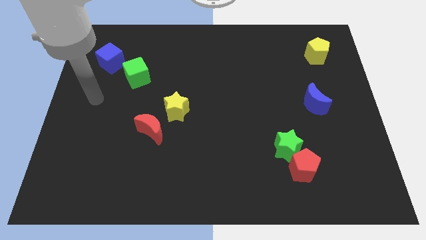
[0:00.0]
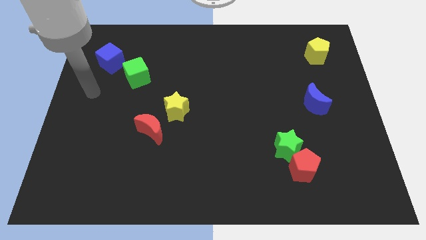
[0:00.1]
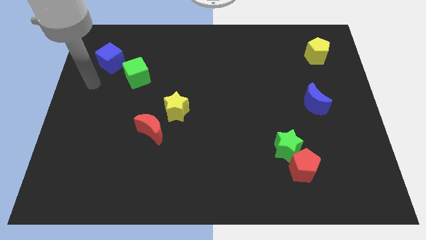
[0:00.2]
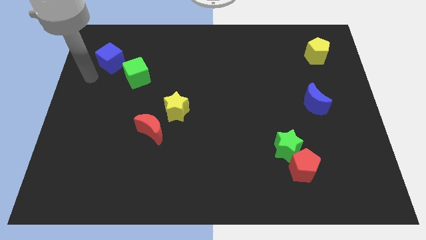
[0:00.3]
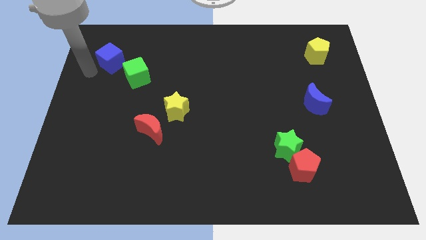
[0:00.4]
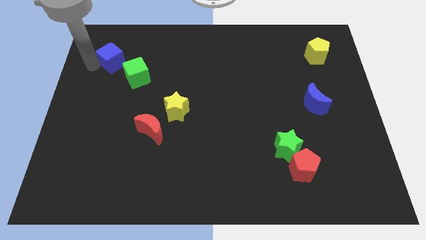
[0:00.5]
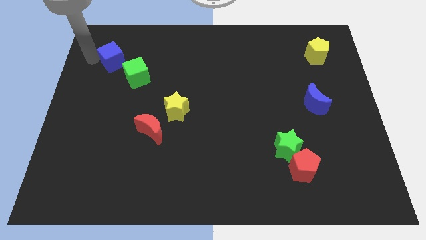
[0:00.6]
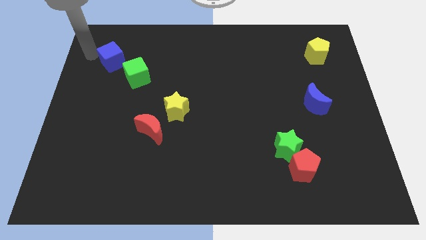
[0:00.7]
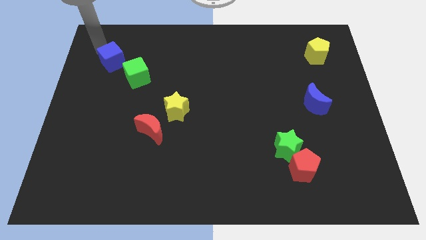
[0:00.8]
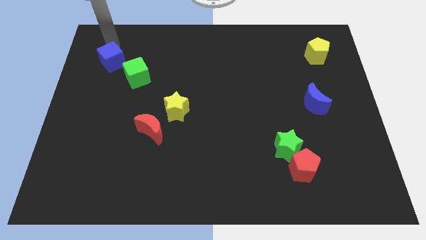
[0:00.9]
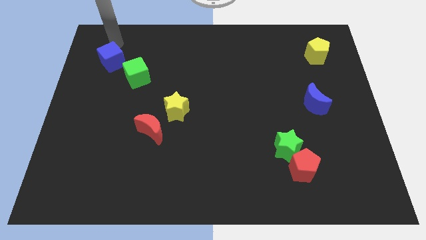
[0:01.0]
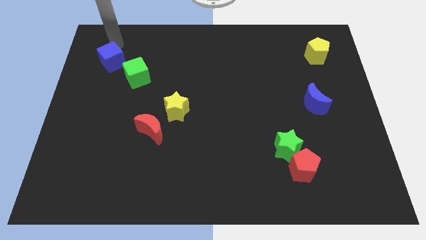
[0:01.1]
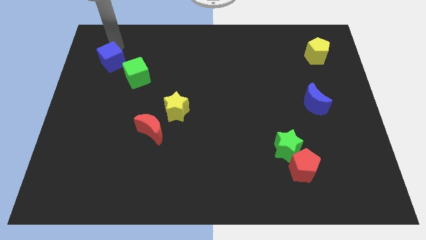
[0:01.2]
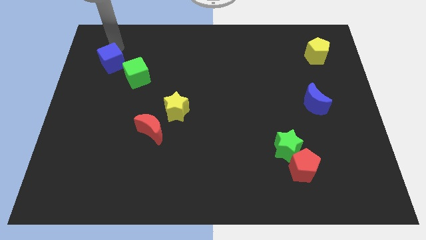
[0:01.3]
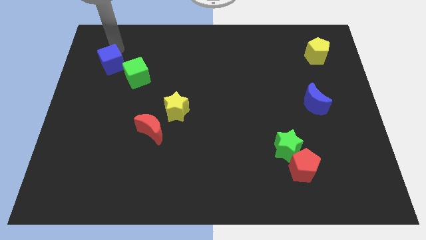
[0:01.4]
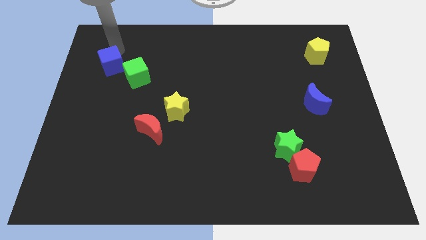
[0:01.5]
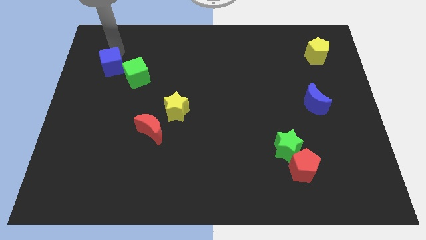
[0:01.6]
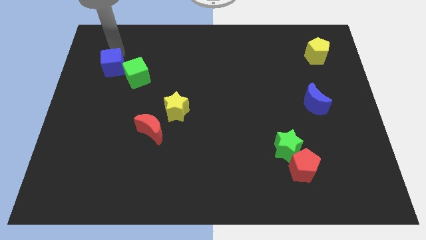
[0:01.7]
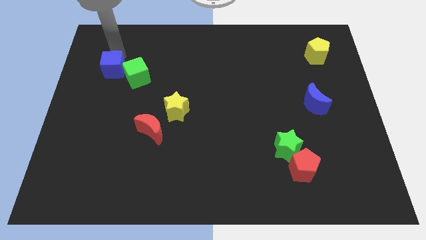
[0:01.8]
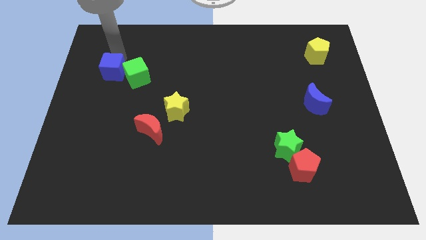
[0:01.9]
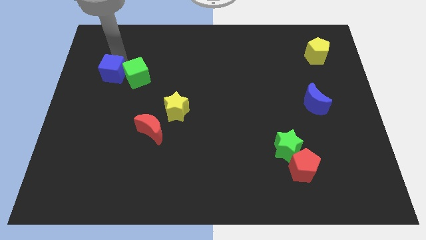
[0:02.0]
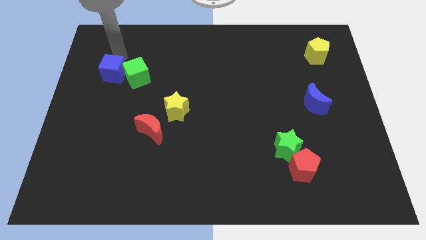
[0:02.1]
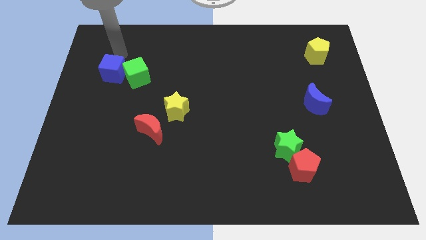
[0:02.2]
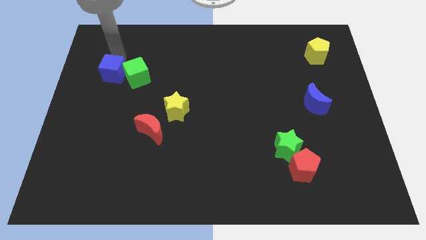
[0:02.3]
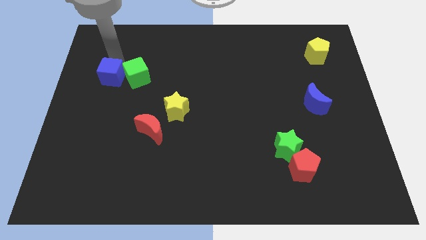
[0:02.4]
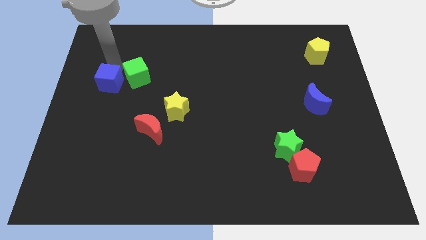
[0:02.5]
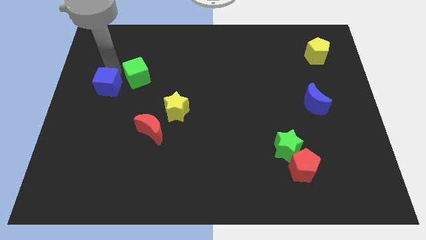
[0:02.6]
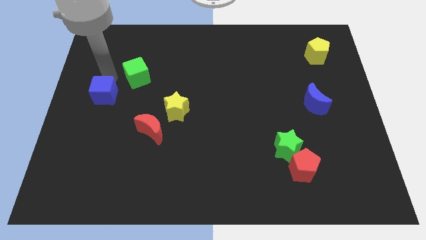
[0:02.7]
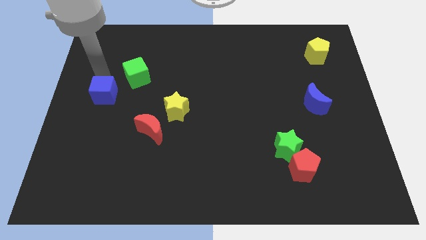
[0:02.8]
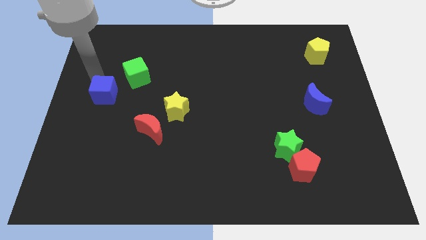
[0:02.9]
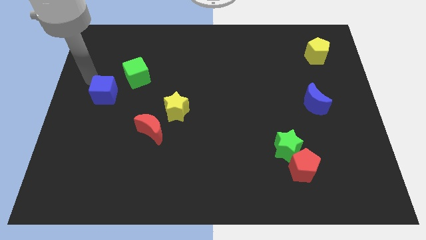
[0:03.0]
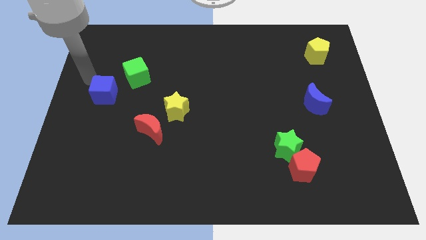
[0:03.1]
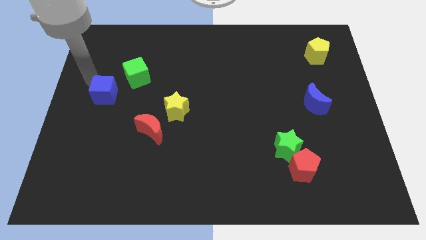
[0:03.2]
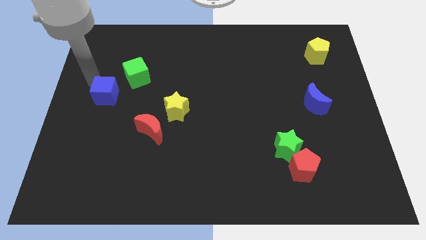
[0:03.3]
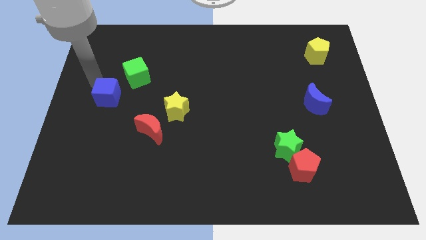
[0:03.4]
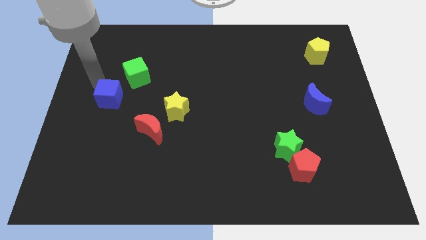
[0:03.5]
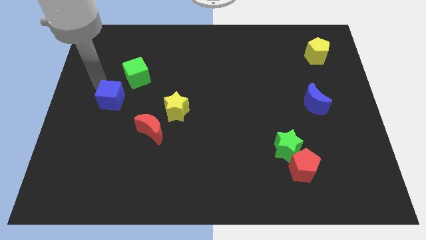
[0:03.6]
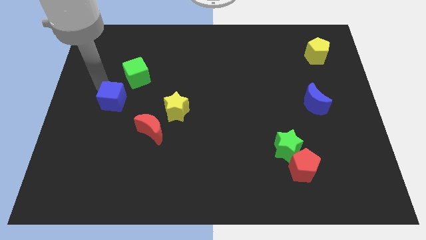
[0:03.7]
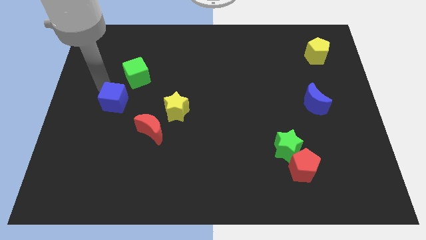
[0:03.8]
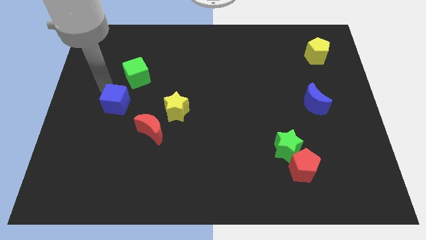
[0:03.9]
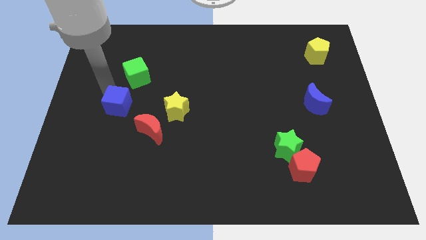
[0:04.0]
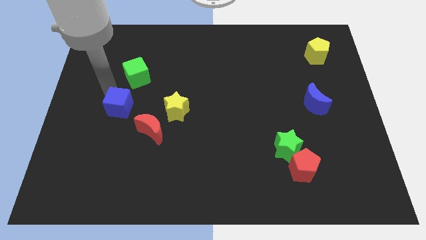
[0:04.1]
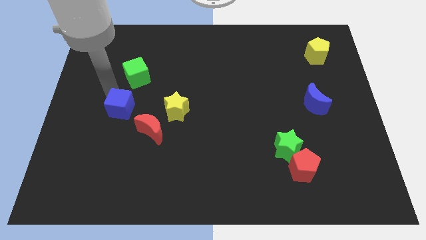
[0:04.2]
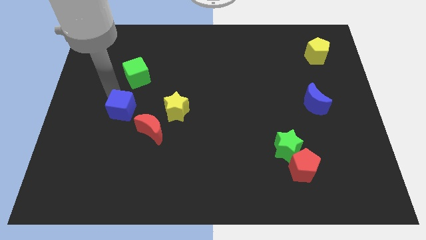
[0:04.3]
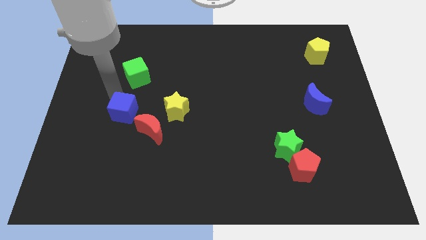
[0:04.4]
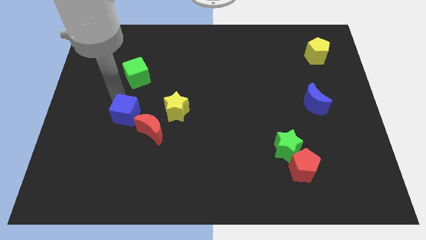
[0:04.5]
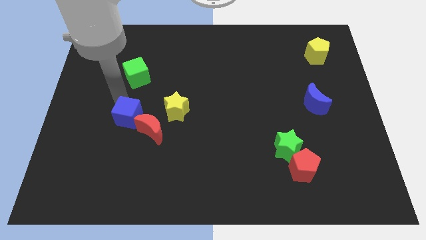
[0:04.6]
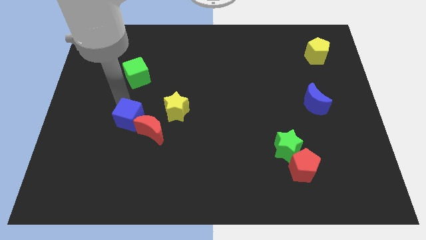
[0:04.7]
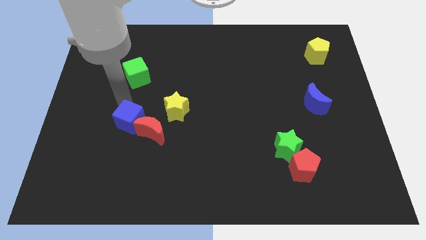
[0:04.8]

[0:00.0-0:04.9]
push the blue cube close to the red moon

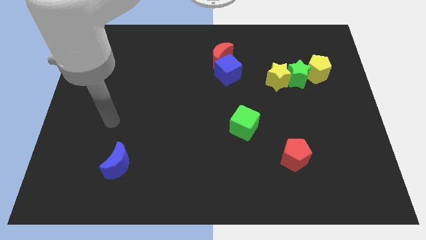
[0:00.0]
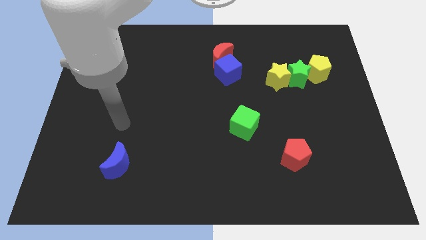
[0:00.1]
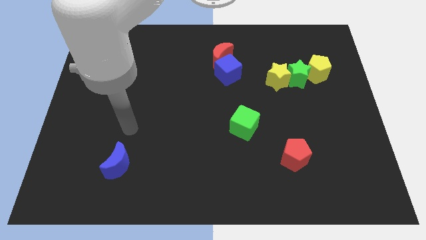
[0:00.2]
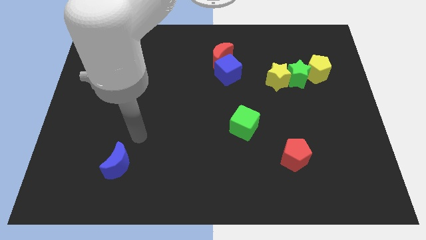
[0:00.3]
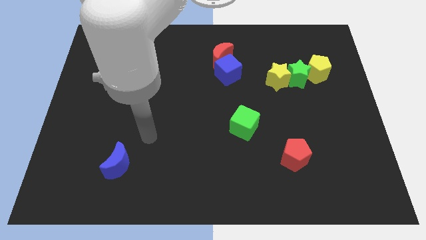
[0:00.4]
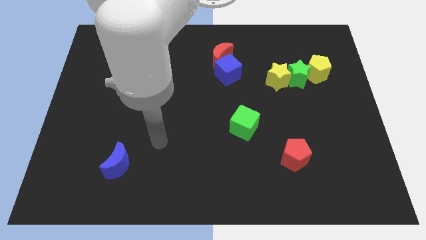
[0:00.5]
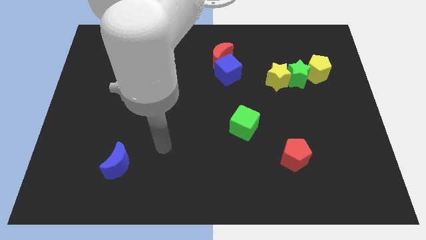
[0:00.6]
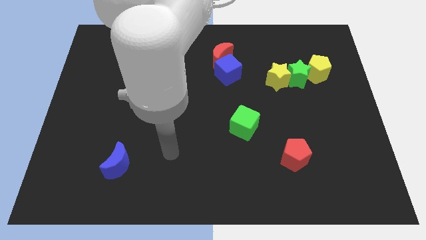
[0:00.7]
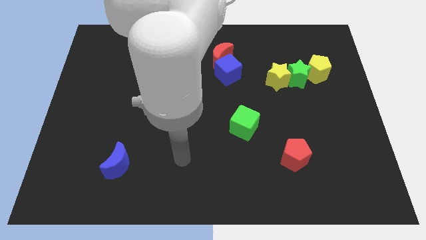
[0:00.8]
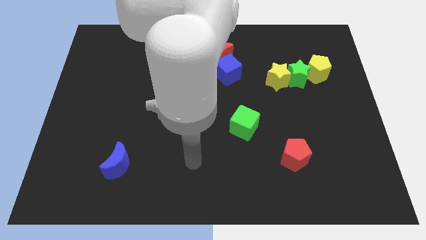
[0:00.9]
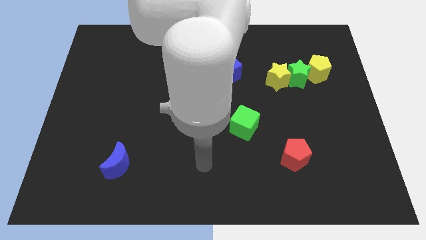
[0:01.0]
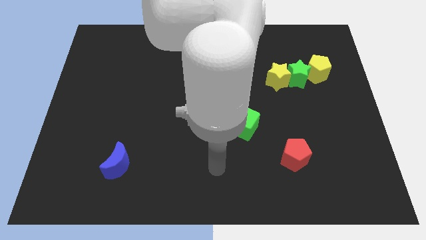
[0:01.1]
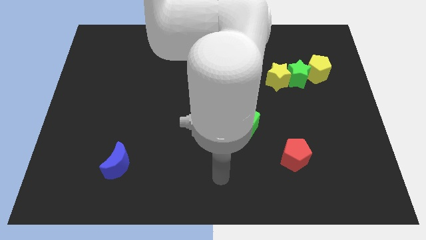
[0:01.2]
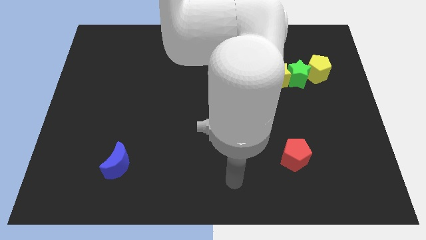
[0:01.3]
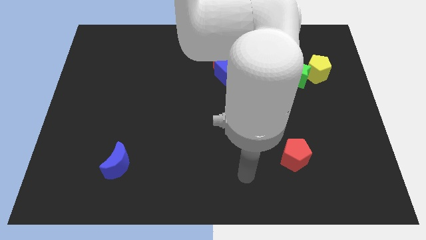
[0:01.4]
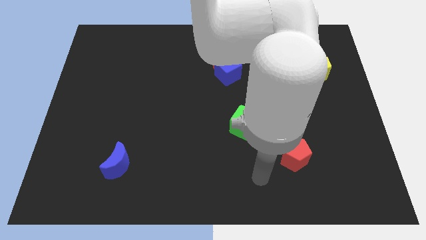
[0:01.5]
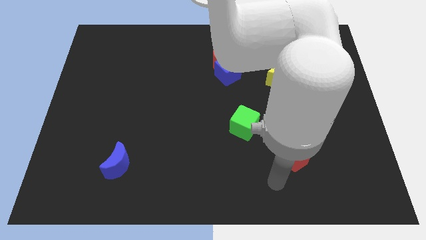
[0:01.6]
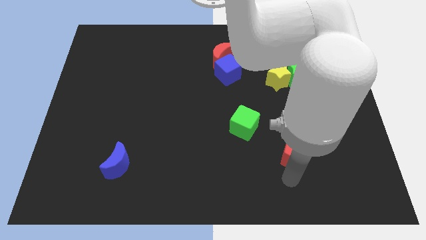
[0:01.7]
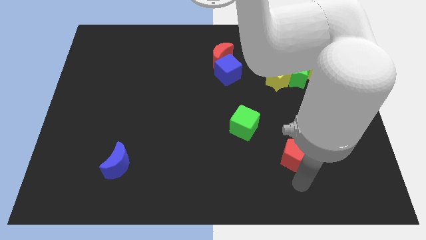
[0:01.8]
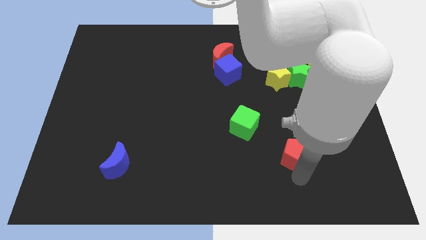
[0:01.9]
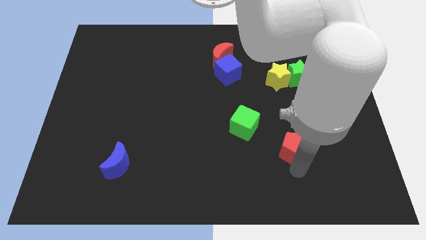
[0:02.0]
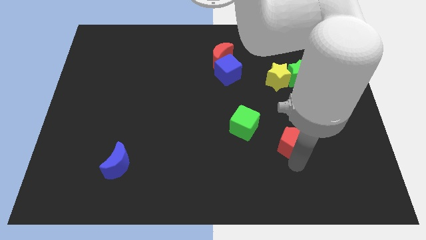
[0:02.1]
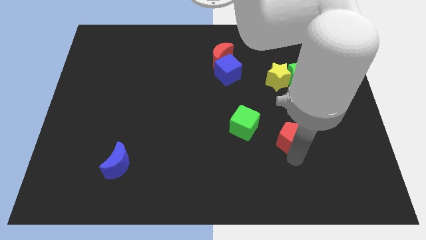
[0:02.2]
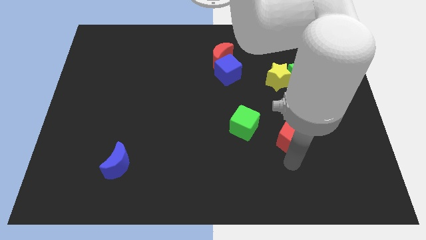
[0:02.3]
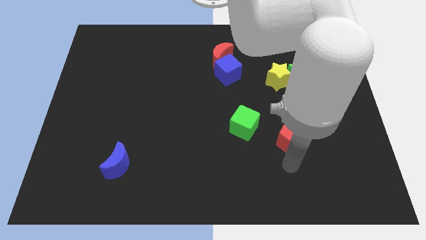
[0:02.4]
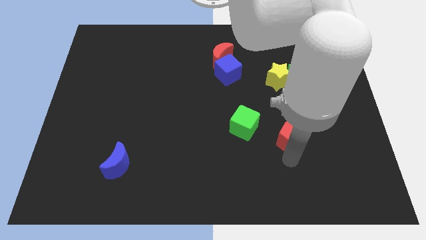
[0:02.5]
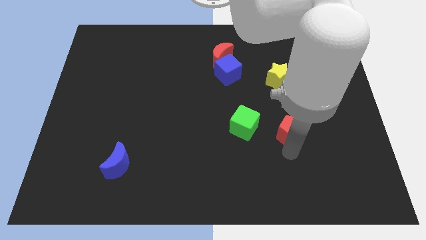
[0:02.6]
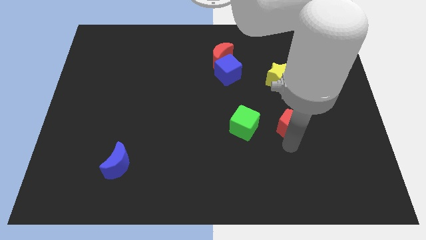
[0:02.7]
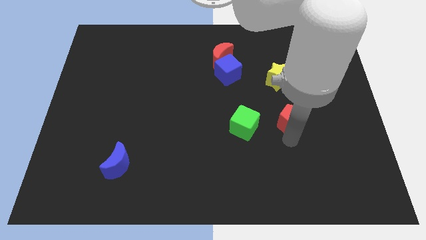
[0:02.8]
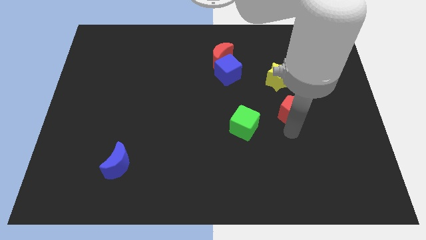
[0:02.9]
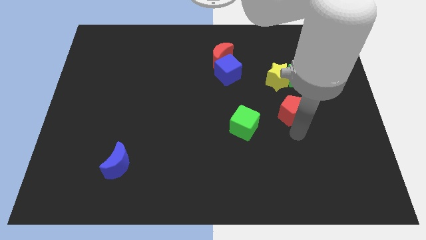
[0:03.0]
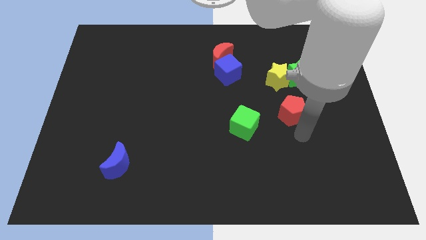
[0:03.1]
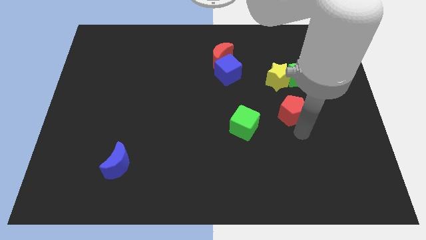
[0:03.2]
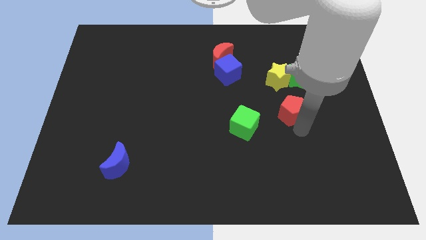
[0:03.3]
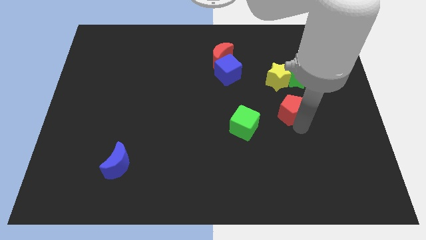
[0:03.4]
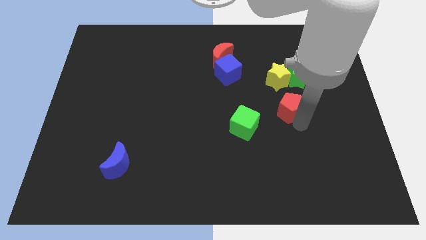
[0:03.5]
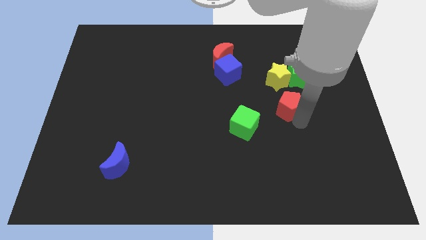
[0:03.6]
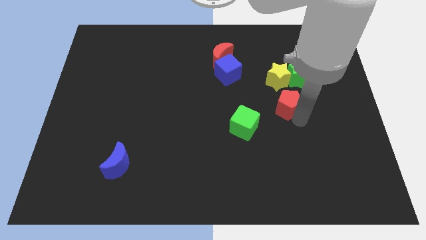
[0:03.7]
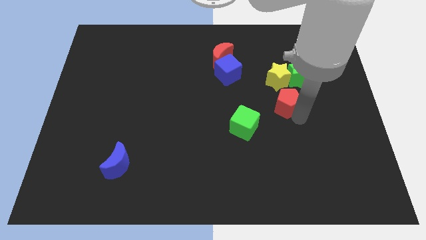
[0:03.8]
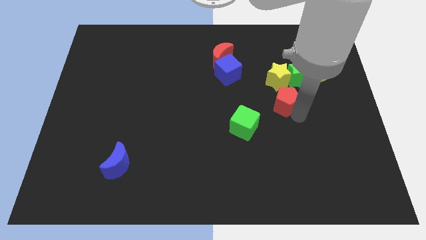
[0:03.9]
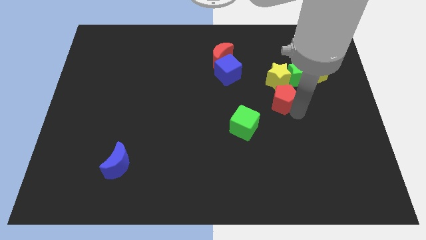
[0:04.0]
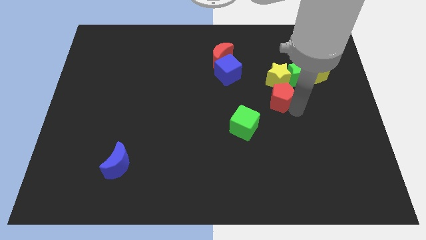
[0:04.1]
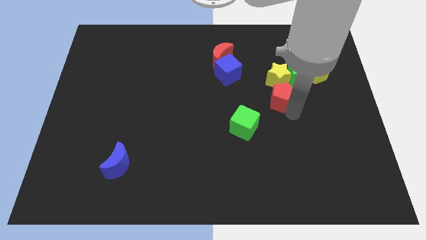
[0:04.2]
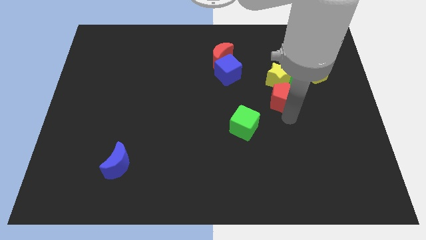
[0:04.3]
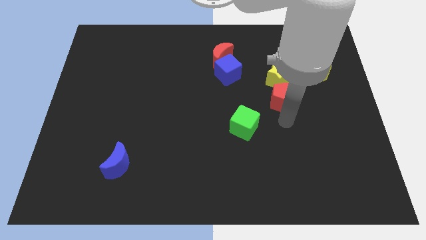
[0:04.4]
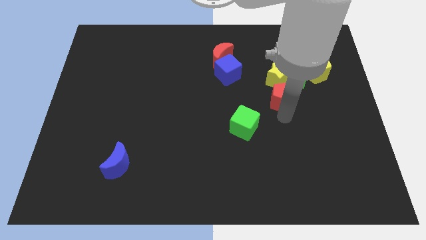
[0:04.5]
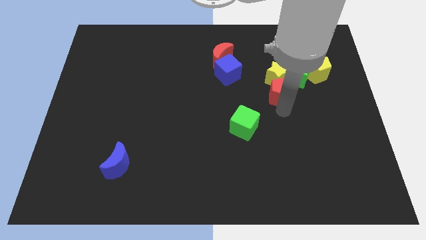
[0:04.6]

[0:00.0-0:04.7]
push the red pentagon to the yellow star
